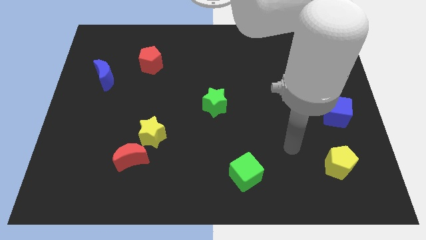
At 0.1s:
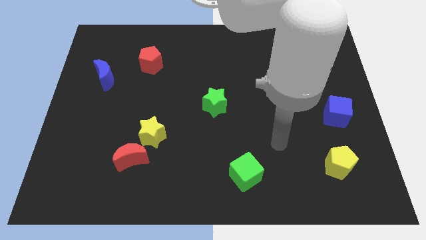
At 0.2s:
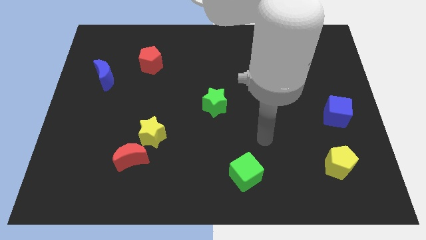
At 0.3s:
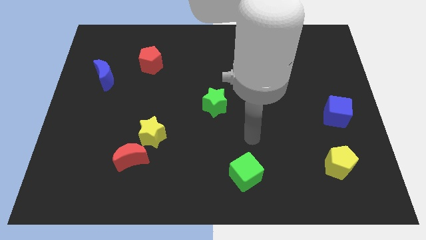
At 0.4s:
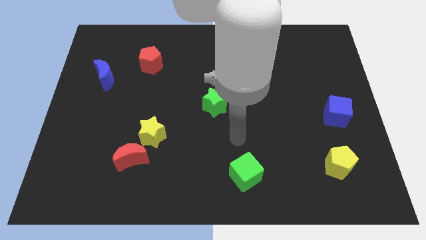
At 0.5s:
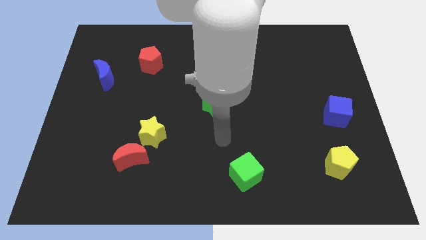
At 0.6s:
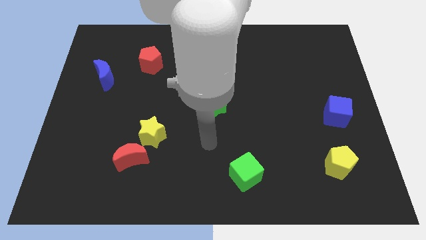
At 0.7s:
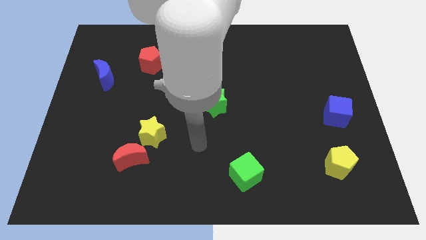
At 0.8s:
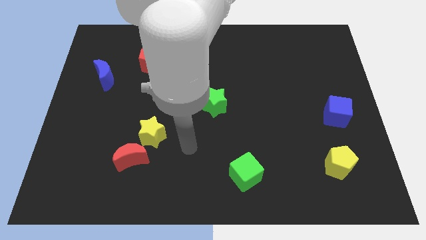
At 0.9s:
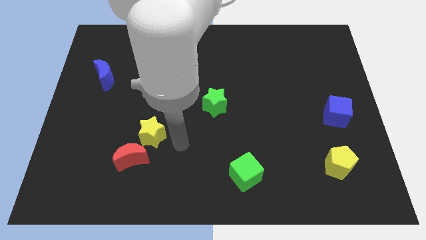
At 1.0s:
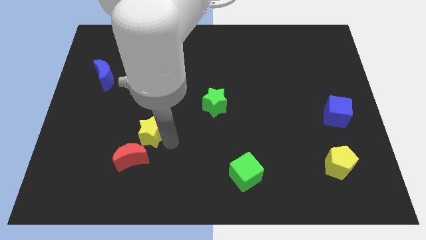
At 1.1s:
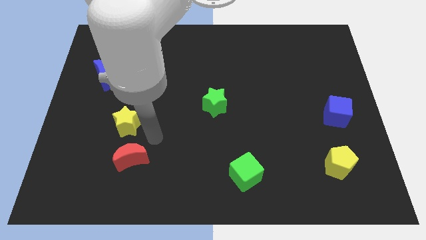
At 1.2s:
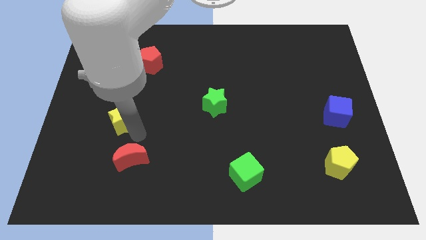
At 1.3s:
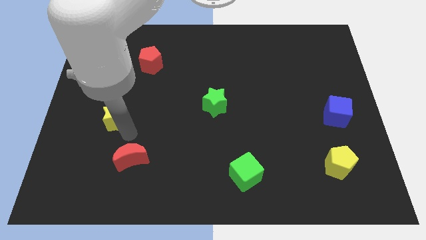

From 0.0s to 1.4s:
separate the red moon from the yellow star

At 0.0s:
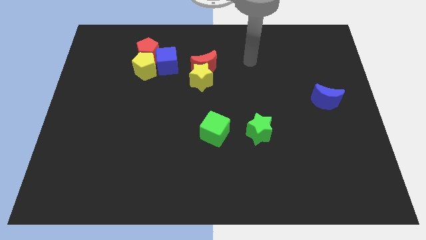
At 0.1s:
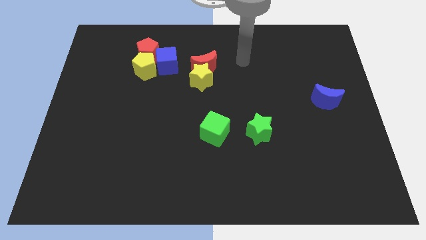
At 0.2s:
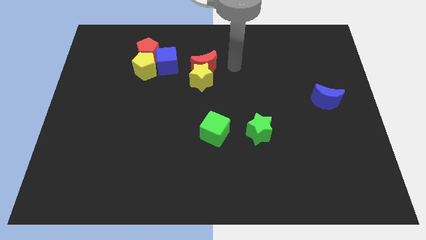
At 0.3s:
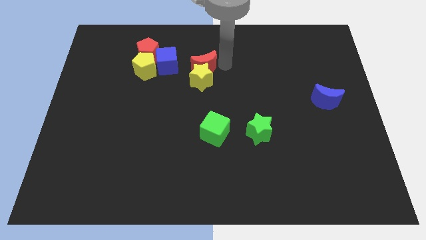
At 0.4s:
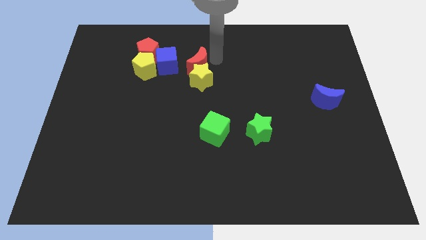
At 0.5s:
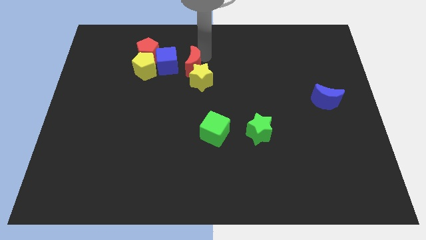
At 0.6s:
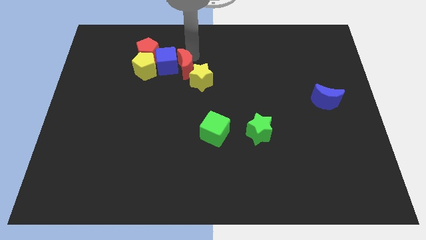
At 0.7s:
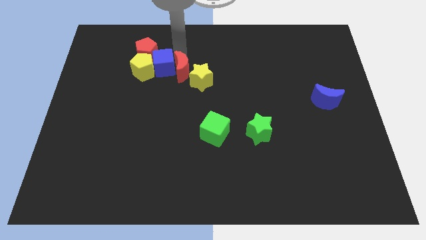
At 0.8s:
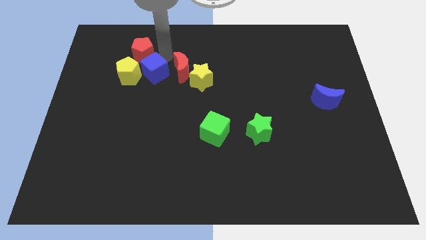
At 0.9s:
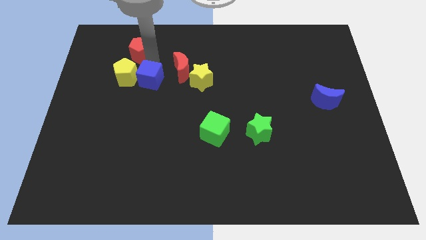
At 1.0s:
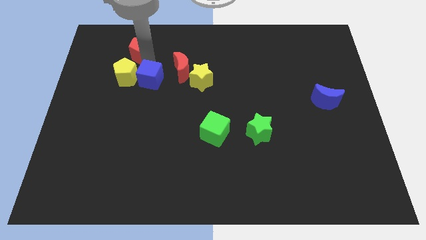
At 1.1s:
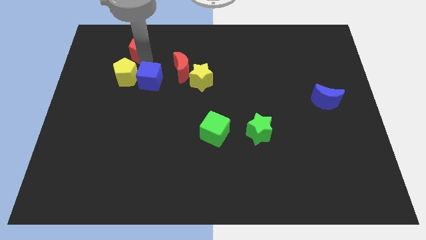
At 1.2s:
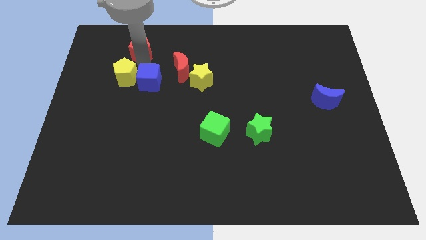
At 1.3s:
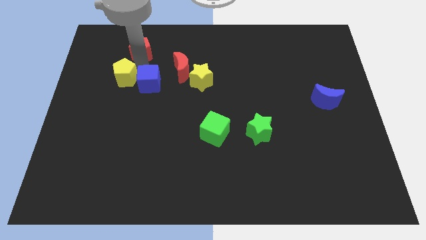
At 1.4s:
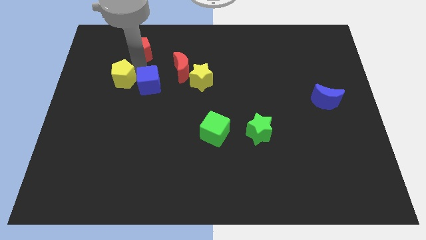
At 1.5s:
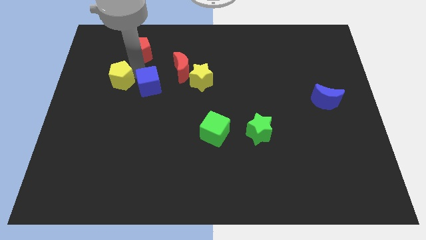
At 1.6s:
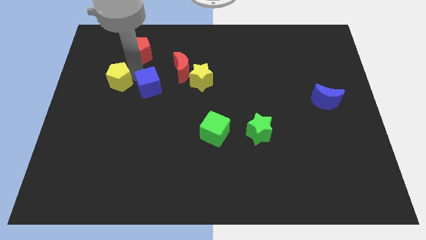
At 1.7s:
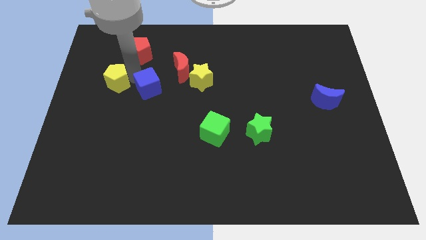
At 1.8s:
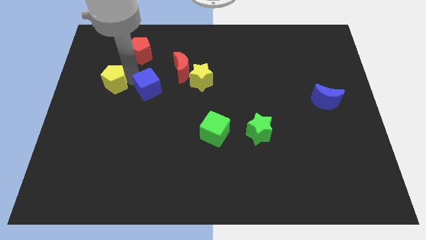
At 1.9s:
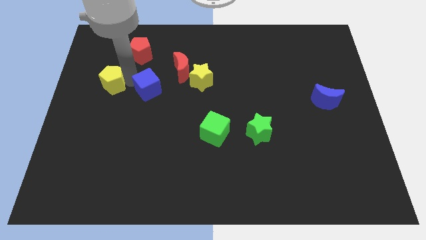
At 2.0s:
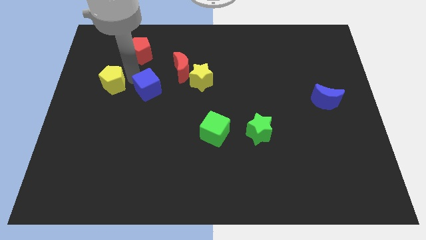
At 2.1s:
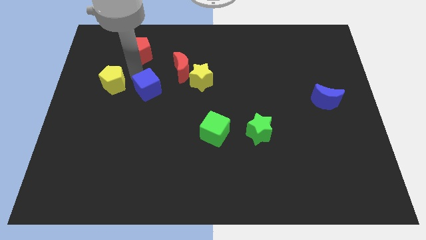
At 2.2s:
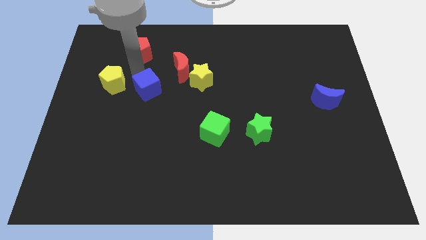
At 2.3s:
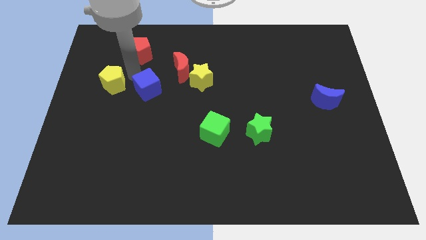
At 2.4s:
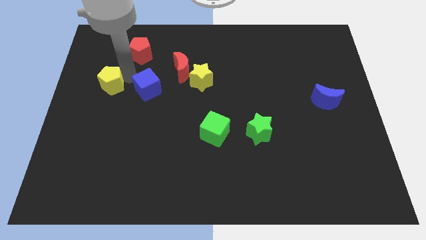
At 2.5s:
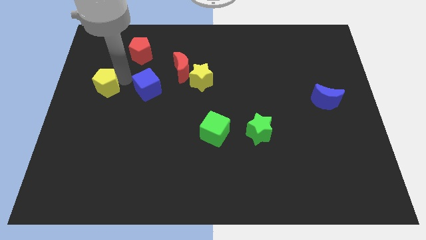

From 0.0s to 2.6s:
pull the yellow pentagon apart from the red pentagon and blue cube

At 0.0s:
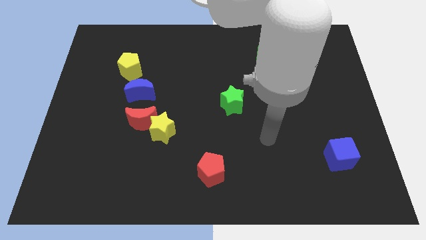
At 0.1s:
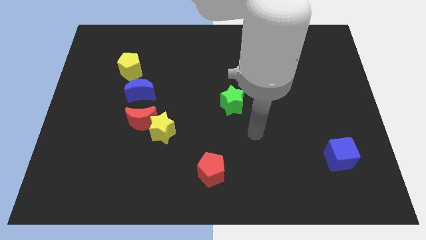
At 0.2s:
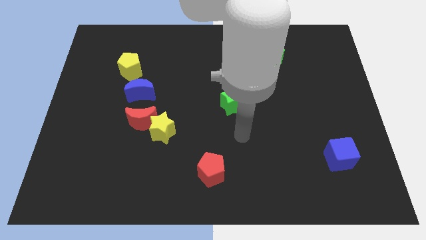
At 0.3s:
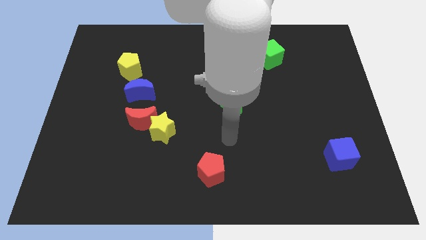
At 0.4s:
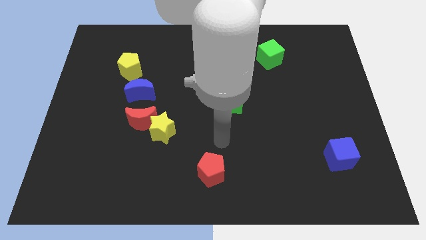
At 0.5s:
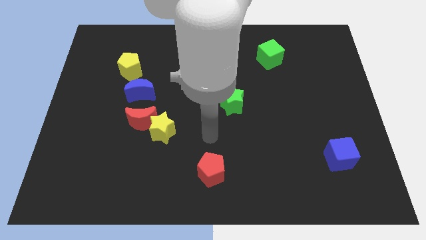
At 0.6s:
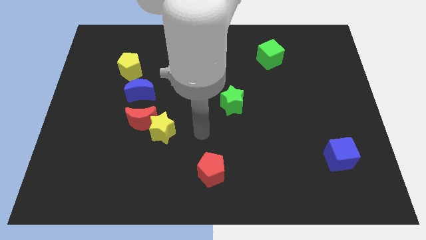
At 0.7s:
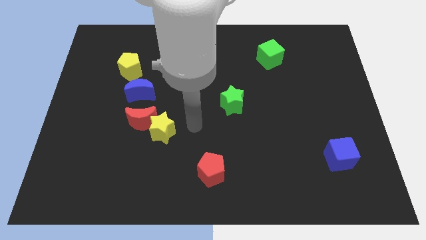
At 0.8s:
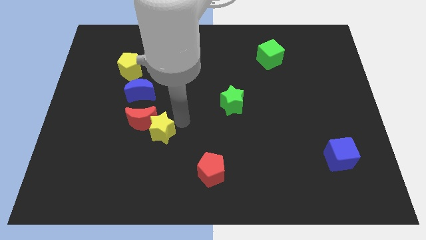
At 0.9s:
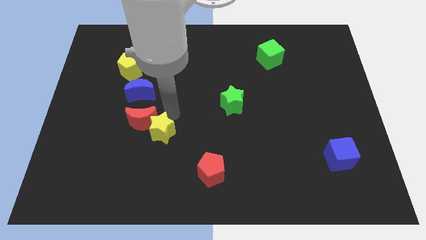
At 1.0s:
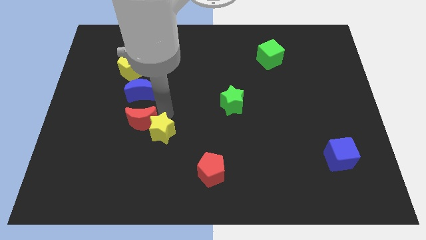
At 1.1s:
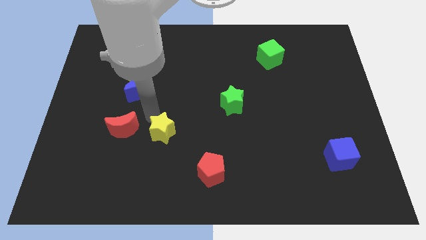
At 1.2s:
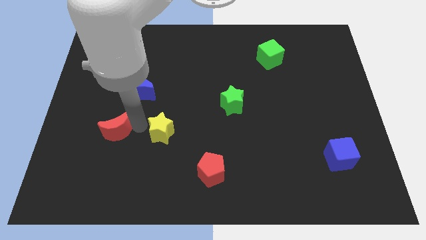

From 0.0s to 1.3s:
separate the yellow star from the red moon

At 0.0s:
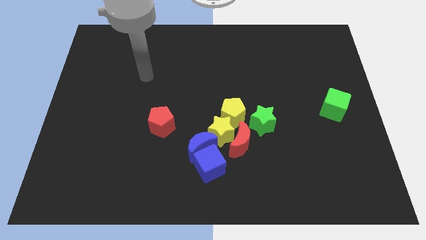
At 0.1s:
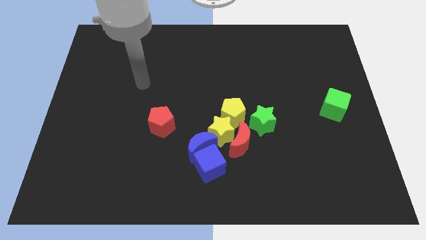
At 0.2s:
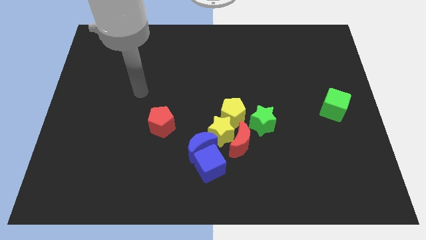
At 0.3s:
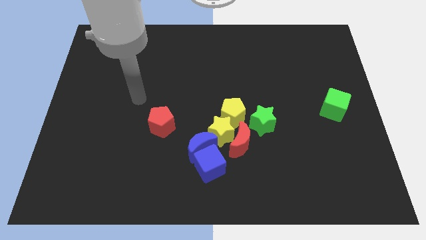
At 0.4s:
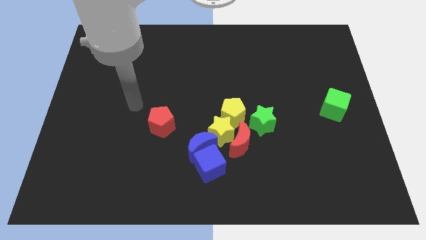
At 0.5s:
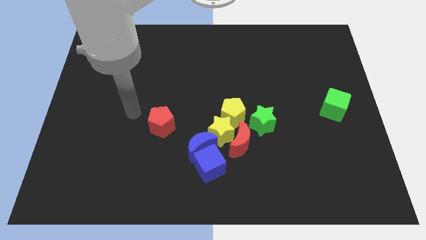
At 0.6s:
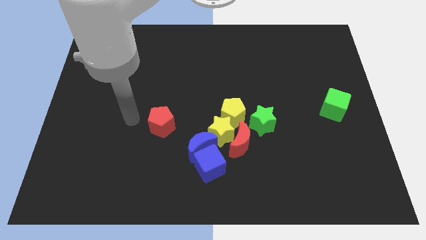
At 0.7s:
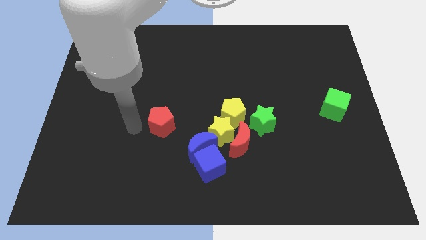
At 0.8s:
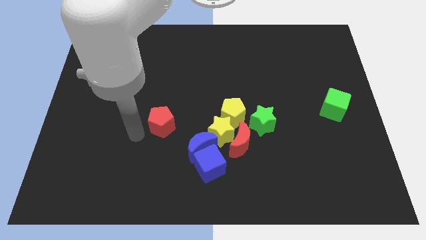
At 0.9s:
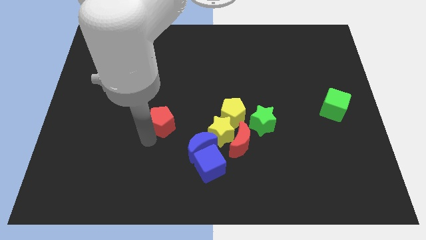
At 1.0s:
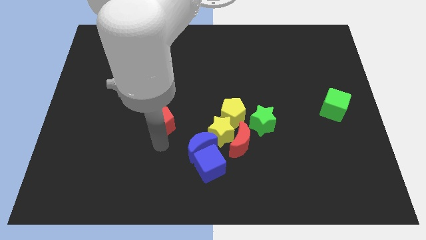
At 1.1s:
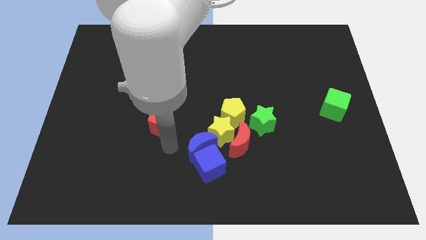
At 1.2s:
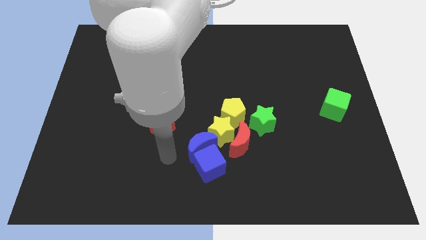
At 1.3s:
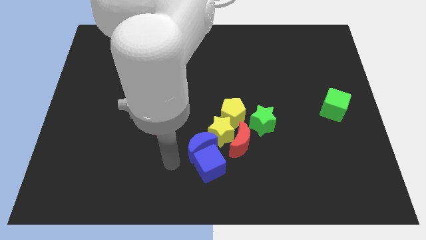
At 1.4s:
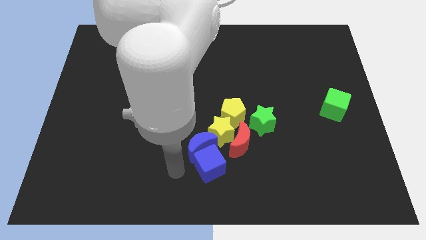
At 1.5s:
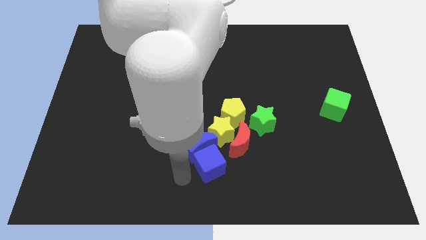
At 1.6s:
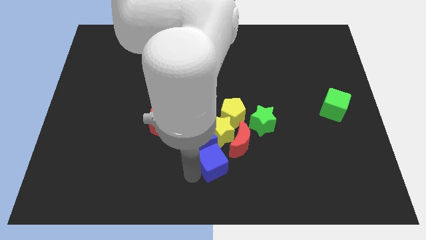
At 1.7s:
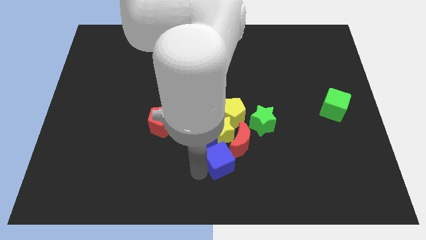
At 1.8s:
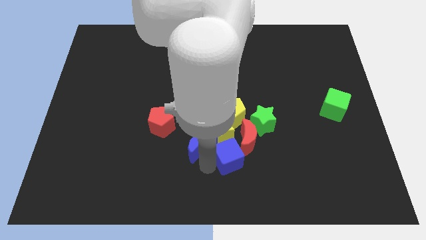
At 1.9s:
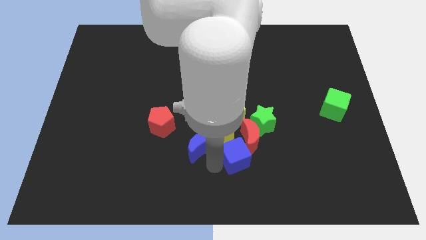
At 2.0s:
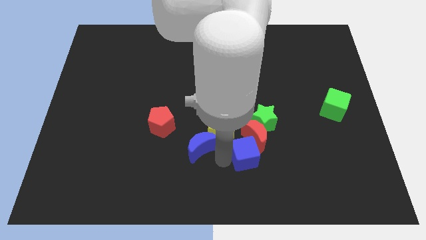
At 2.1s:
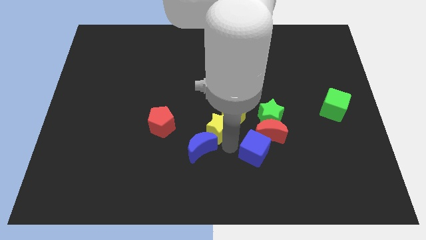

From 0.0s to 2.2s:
pull the blue moon apart from the group of blocks

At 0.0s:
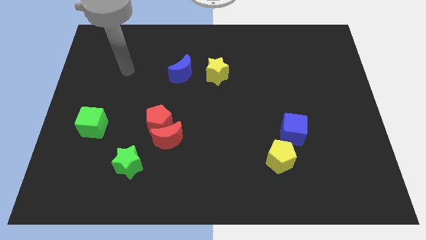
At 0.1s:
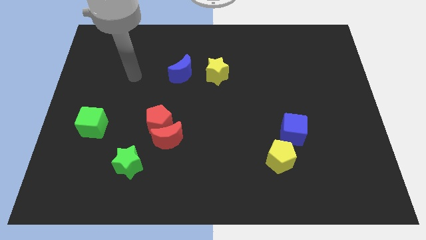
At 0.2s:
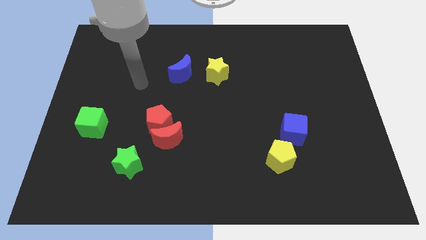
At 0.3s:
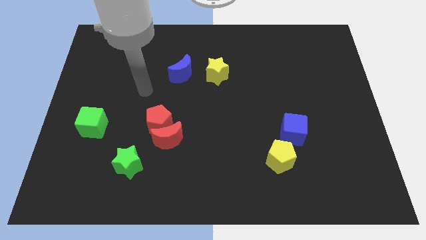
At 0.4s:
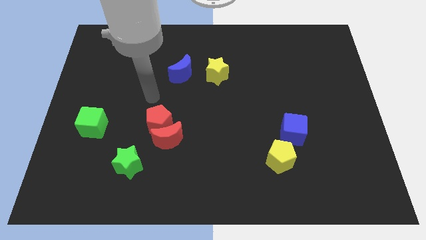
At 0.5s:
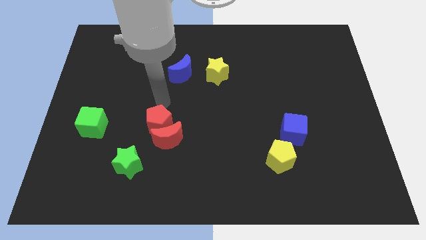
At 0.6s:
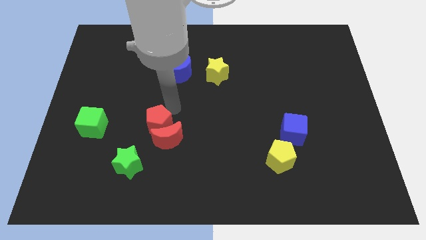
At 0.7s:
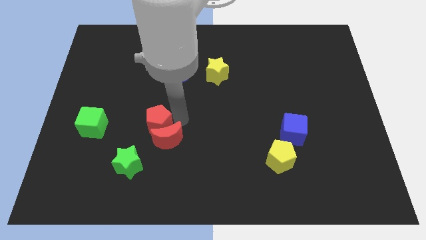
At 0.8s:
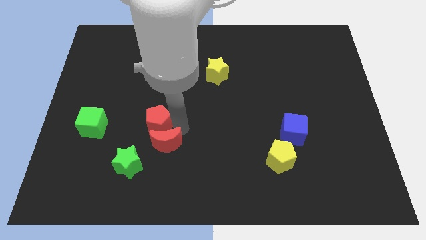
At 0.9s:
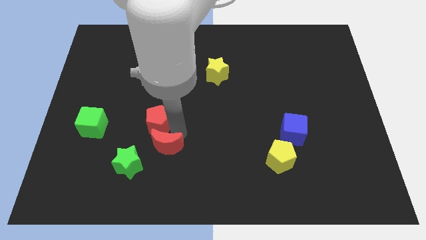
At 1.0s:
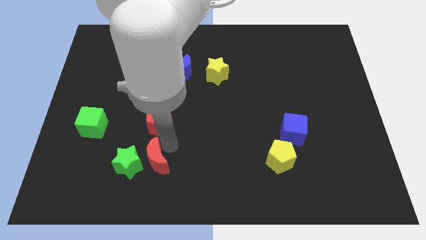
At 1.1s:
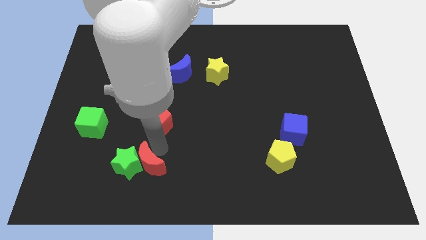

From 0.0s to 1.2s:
move the red pentagon away from the red moon

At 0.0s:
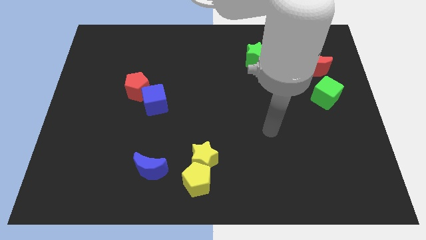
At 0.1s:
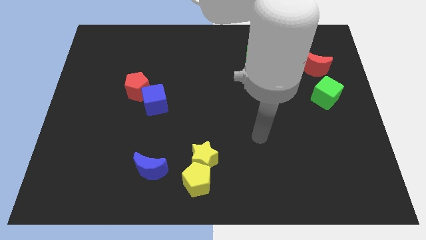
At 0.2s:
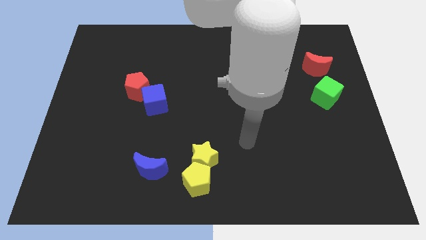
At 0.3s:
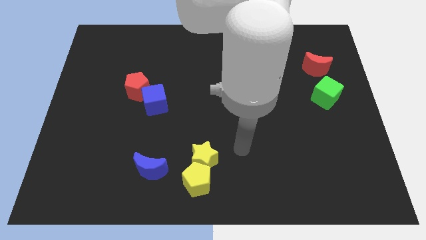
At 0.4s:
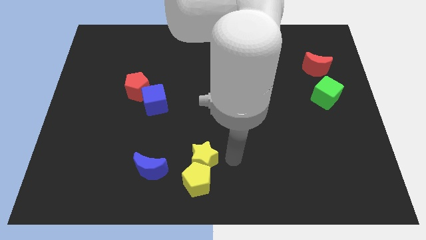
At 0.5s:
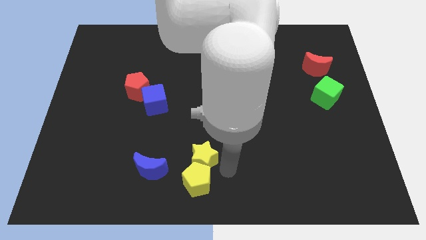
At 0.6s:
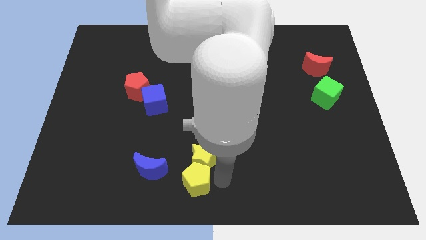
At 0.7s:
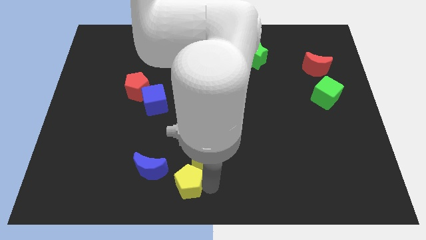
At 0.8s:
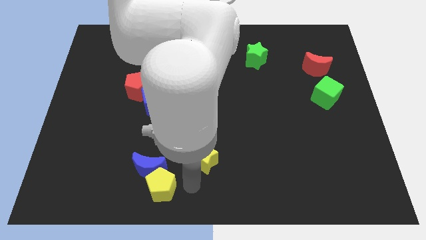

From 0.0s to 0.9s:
pull the yellow star apart from the yellow pentagon
